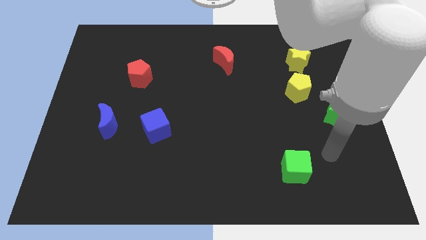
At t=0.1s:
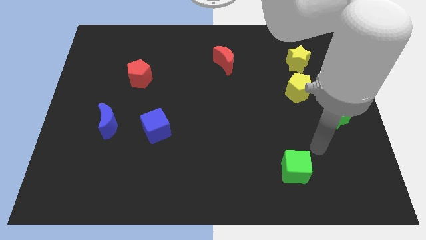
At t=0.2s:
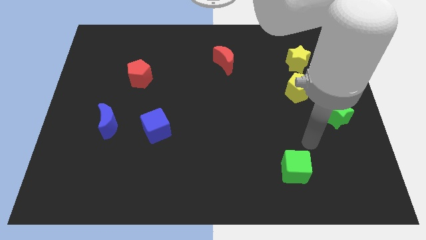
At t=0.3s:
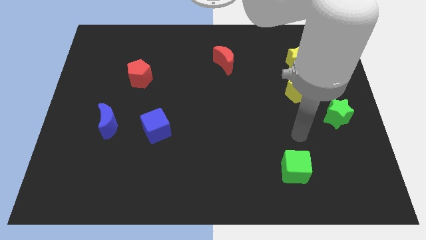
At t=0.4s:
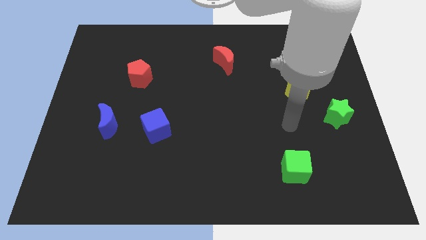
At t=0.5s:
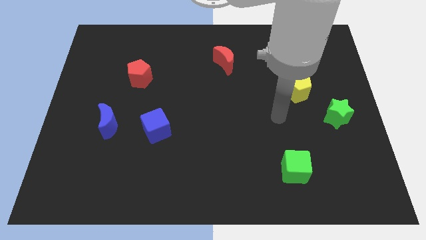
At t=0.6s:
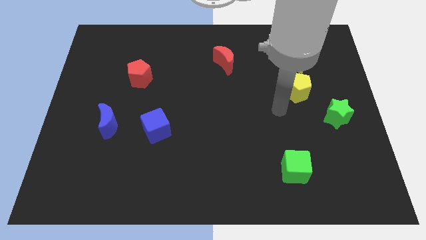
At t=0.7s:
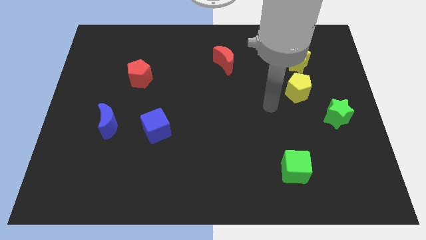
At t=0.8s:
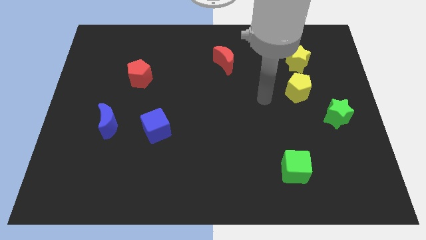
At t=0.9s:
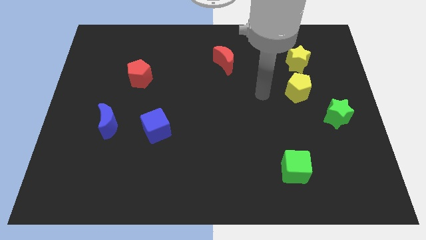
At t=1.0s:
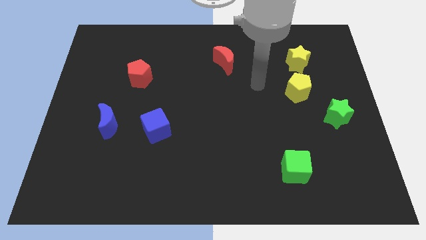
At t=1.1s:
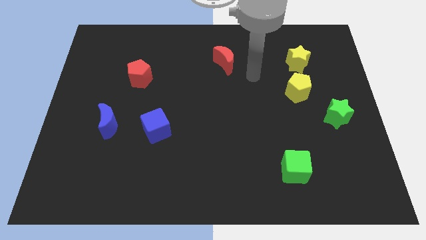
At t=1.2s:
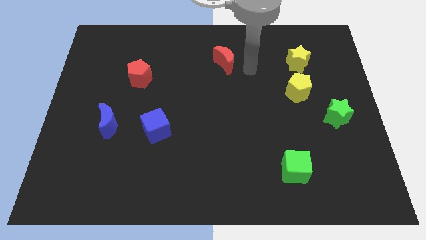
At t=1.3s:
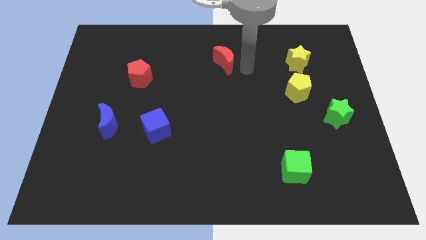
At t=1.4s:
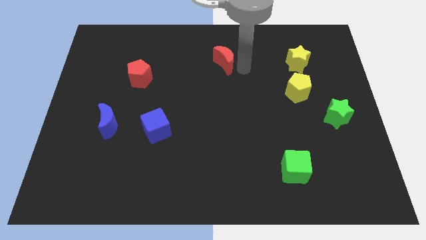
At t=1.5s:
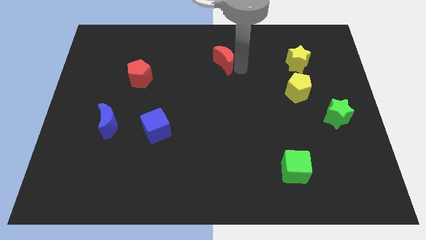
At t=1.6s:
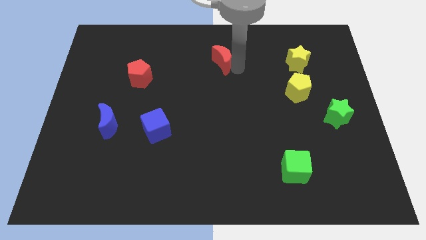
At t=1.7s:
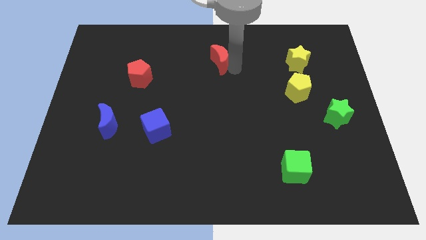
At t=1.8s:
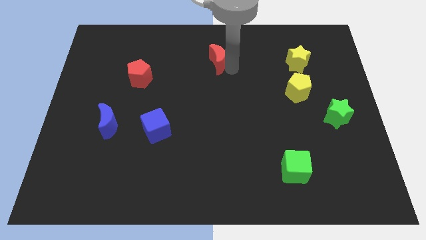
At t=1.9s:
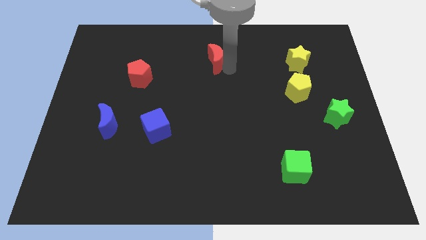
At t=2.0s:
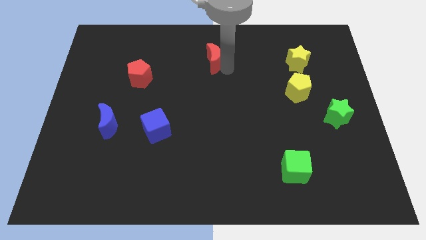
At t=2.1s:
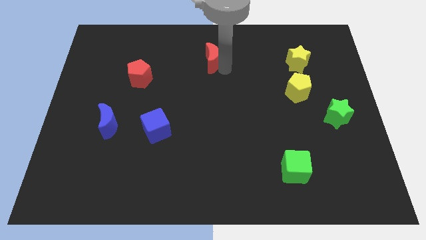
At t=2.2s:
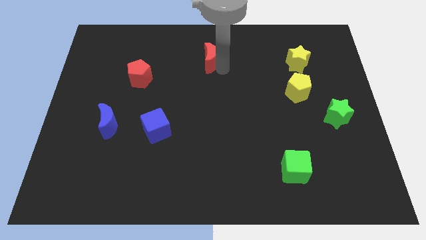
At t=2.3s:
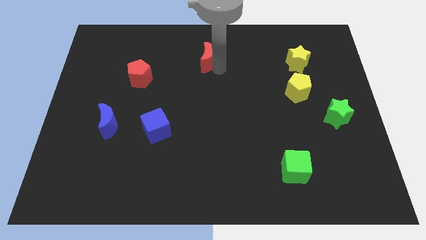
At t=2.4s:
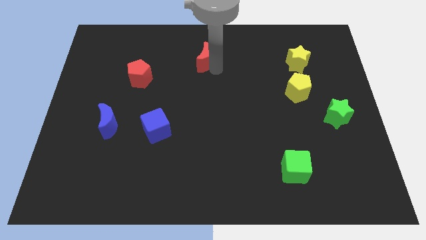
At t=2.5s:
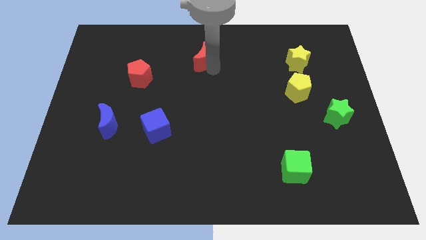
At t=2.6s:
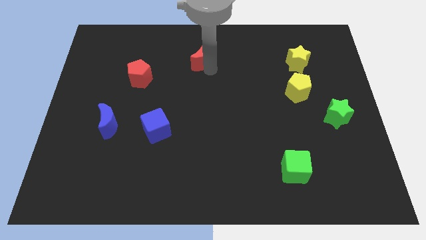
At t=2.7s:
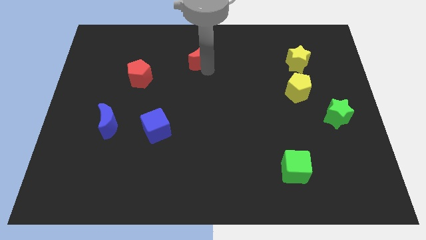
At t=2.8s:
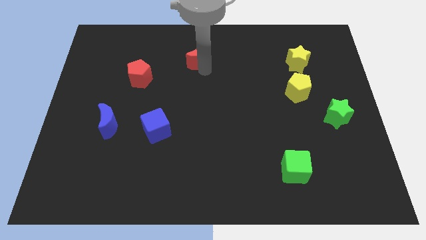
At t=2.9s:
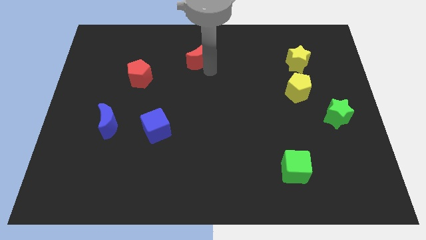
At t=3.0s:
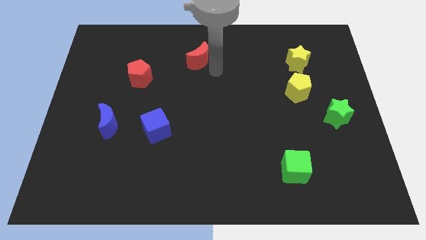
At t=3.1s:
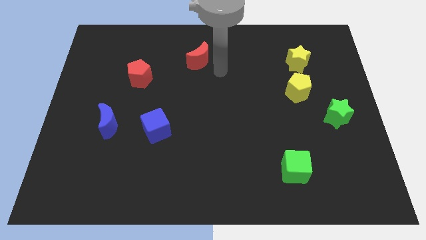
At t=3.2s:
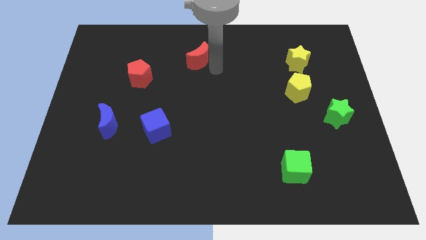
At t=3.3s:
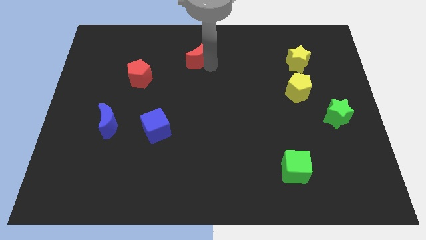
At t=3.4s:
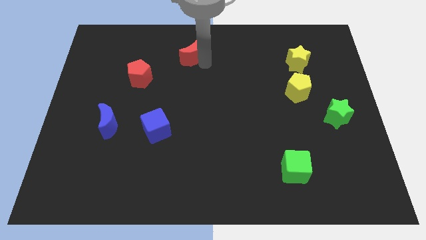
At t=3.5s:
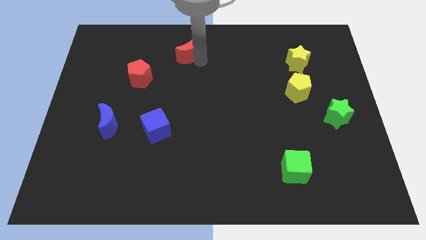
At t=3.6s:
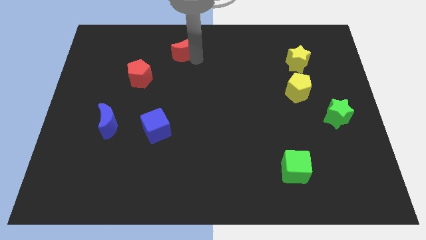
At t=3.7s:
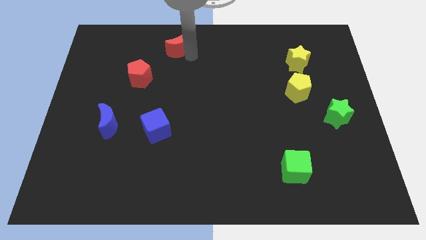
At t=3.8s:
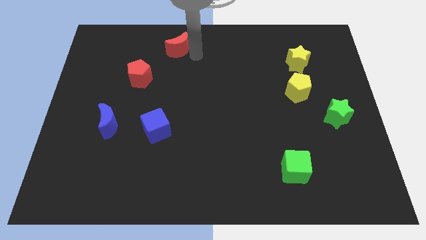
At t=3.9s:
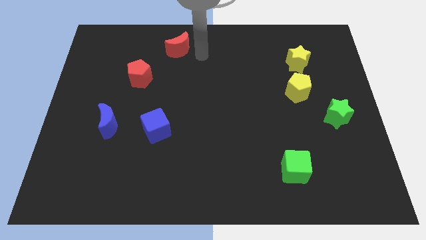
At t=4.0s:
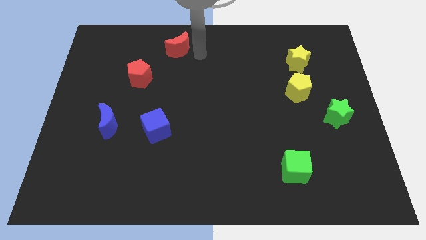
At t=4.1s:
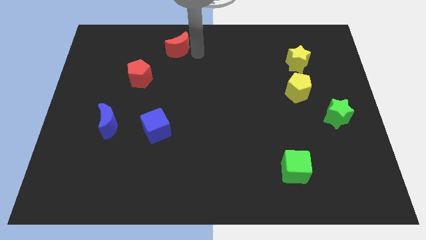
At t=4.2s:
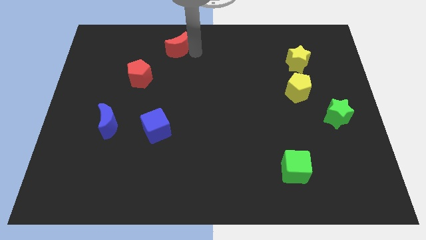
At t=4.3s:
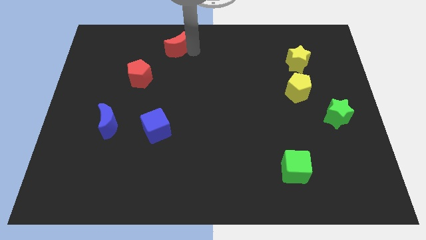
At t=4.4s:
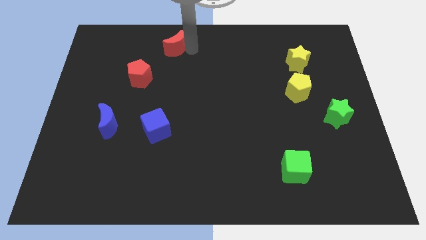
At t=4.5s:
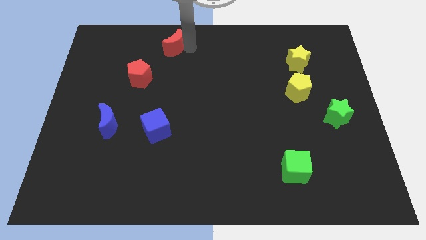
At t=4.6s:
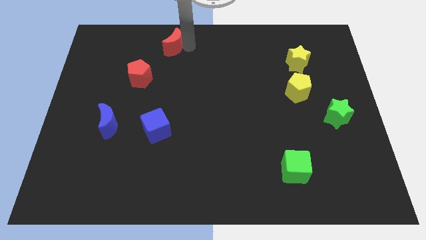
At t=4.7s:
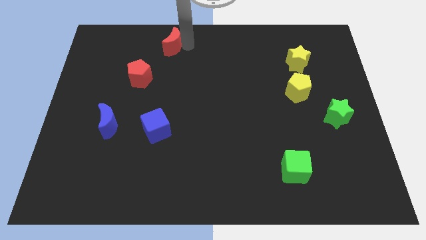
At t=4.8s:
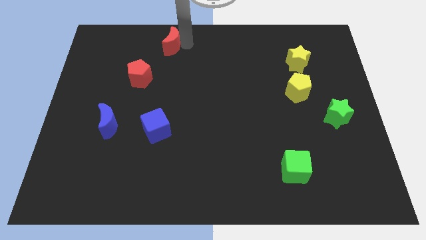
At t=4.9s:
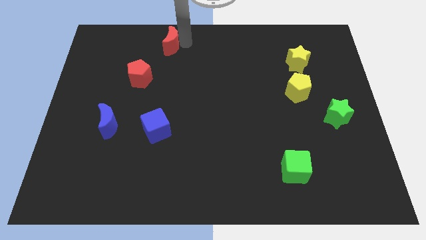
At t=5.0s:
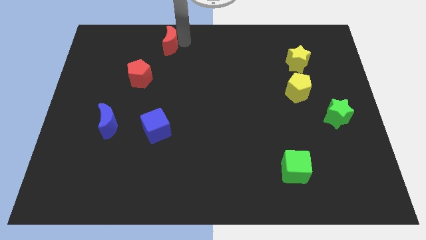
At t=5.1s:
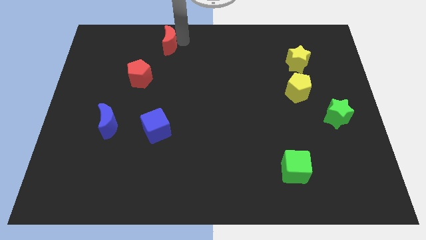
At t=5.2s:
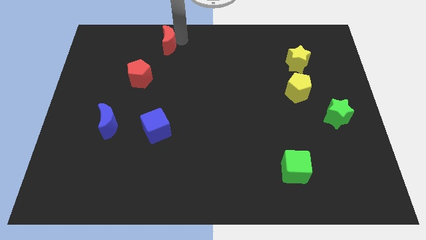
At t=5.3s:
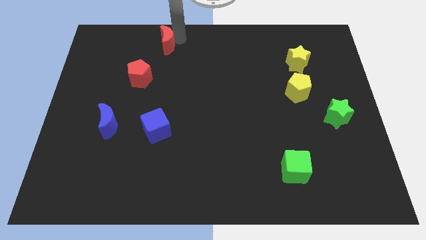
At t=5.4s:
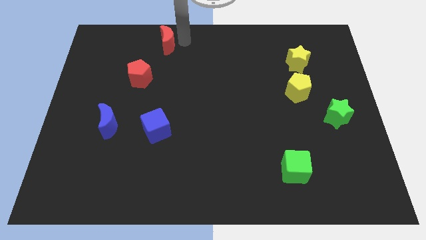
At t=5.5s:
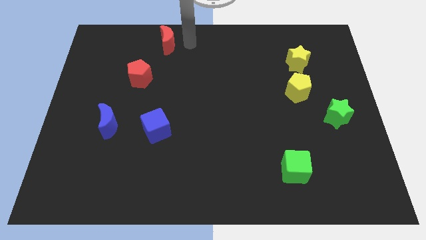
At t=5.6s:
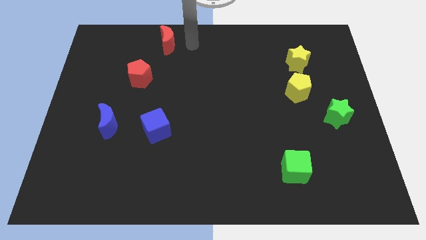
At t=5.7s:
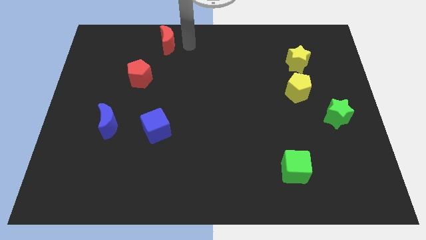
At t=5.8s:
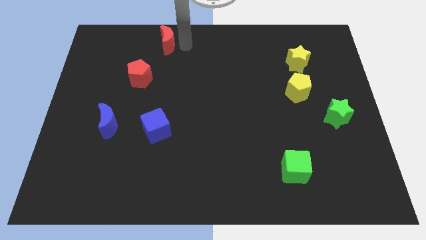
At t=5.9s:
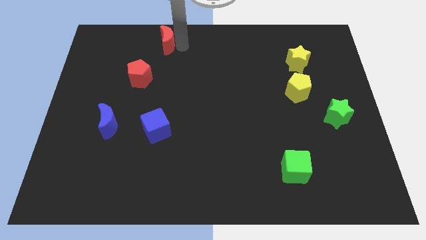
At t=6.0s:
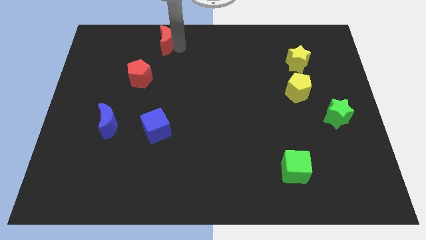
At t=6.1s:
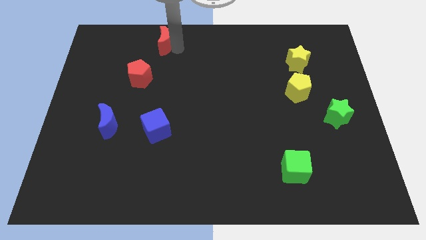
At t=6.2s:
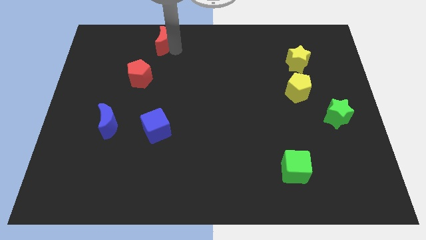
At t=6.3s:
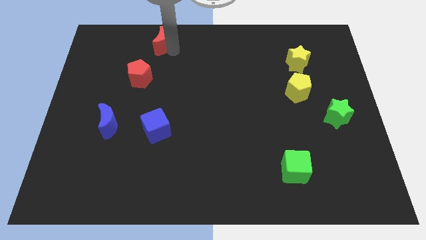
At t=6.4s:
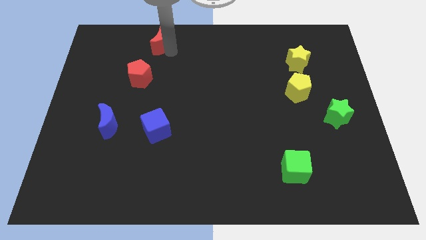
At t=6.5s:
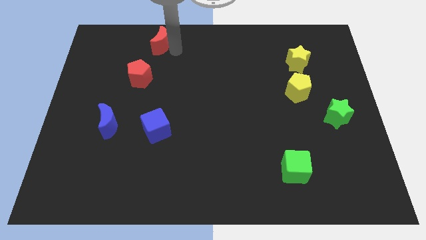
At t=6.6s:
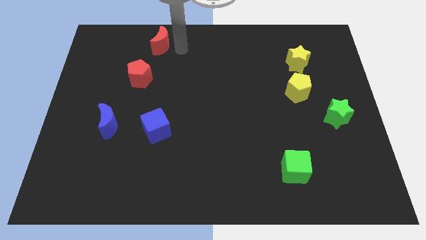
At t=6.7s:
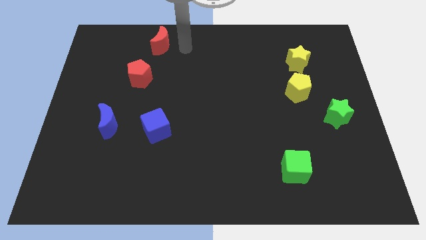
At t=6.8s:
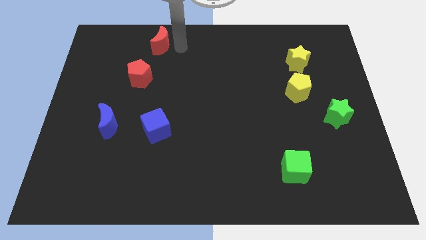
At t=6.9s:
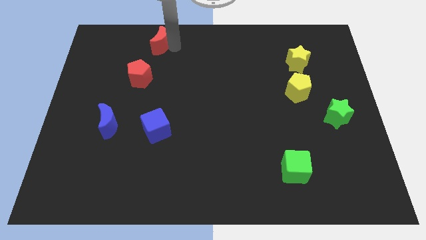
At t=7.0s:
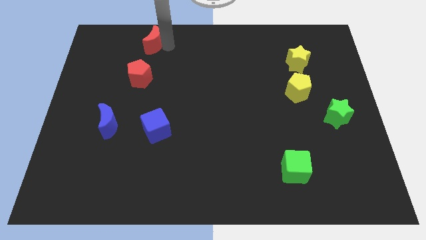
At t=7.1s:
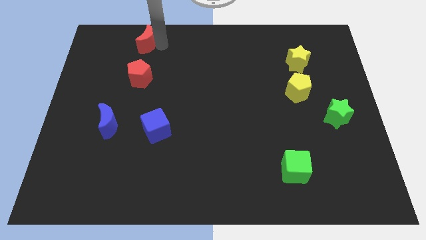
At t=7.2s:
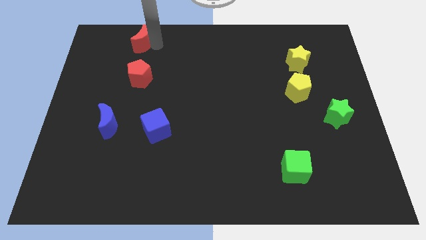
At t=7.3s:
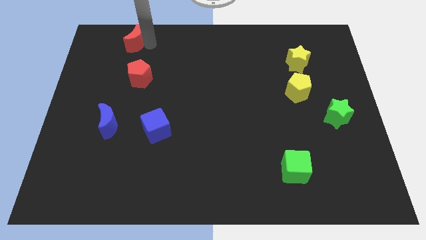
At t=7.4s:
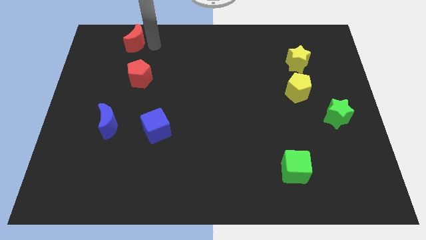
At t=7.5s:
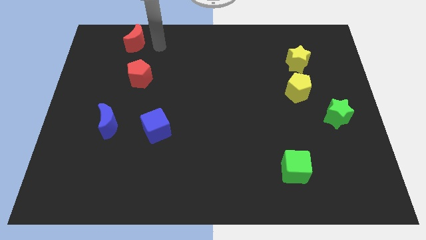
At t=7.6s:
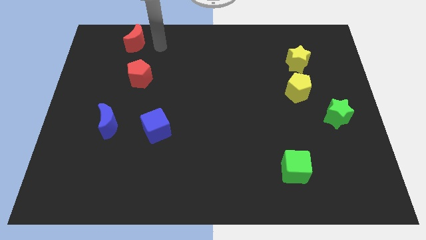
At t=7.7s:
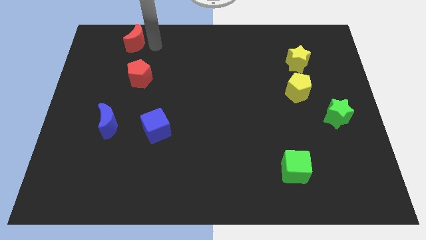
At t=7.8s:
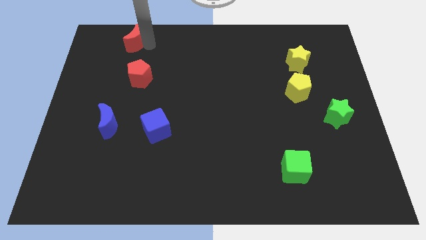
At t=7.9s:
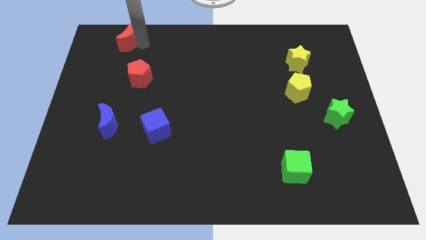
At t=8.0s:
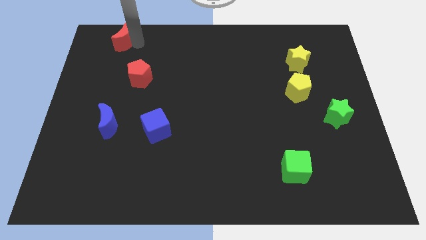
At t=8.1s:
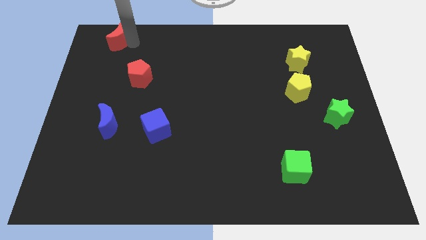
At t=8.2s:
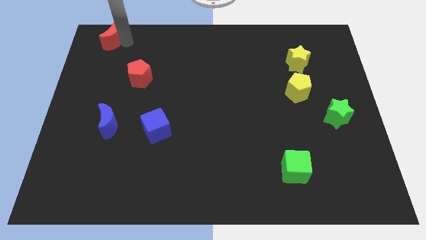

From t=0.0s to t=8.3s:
push the red moon to the top left corner
